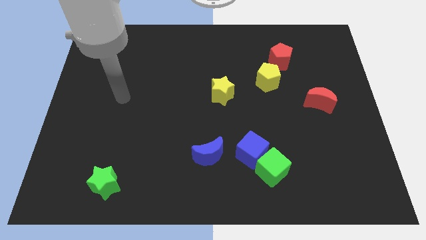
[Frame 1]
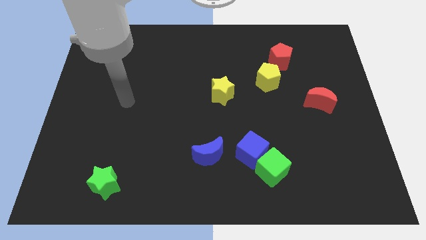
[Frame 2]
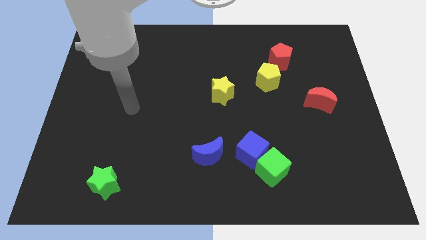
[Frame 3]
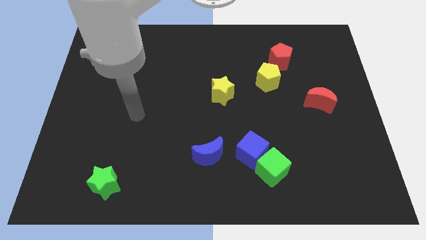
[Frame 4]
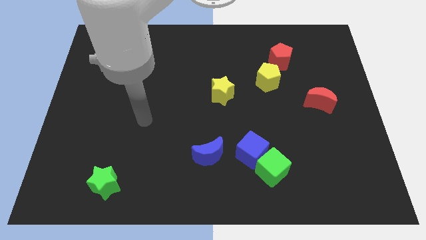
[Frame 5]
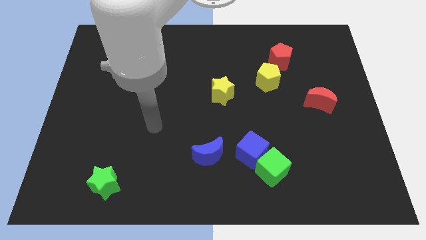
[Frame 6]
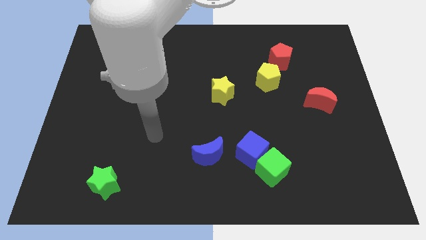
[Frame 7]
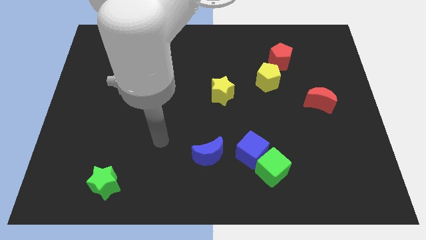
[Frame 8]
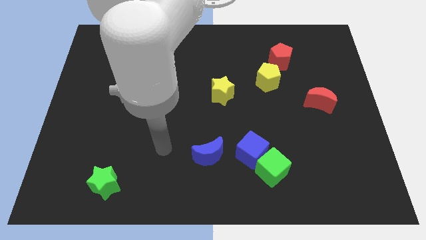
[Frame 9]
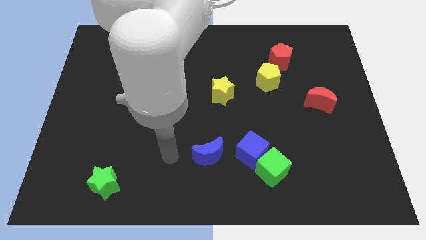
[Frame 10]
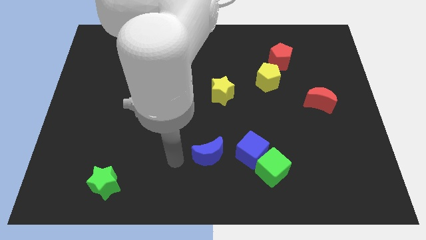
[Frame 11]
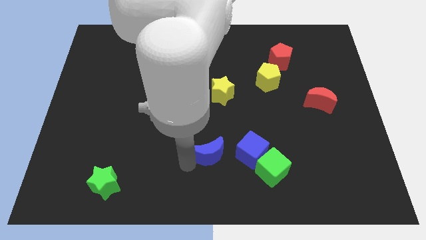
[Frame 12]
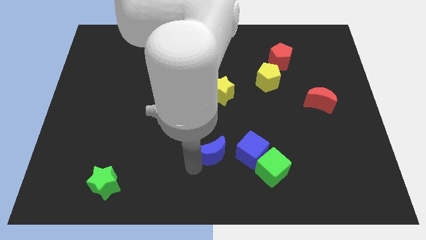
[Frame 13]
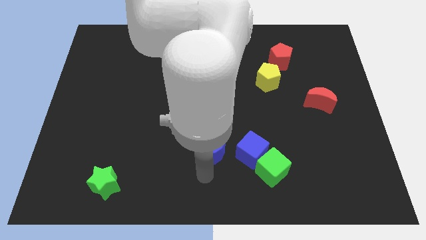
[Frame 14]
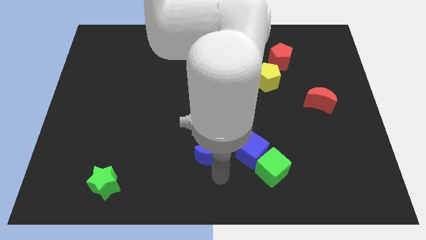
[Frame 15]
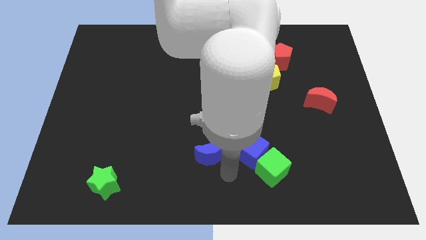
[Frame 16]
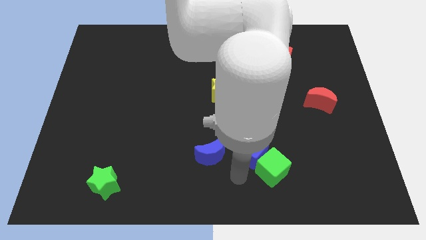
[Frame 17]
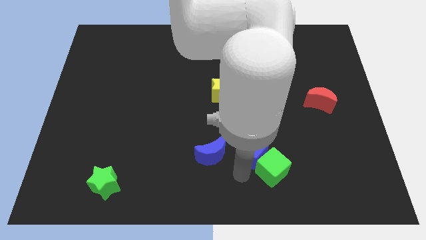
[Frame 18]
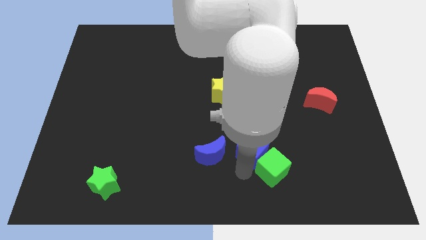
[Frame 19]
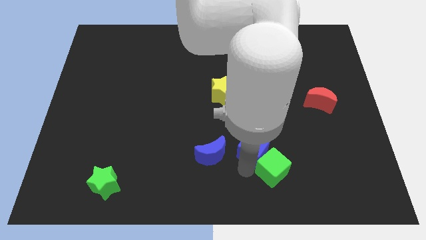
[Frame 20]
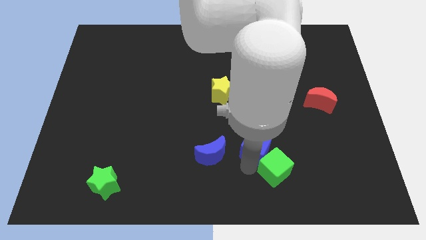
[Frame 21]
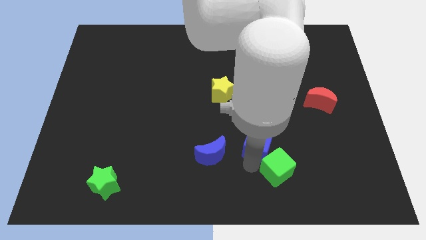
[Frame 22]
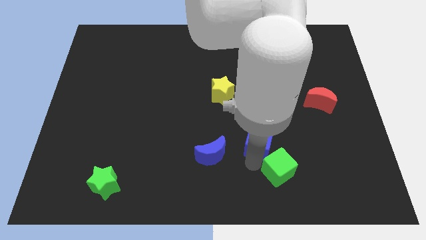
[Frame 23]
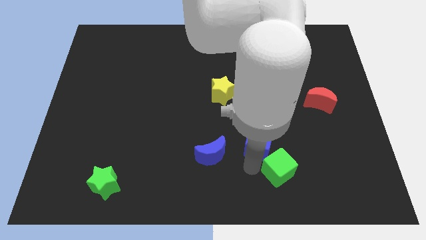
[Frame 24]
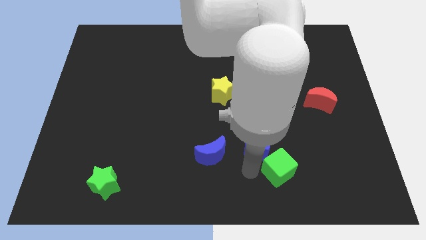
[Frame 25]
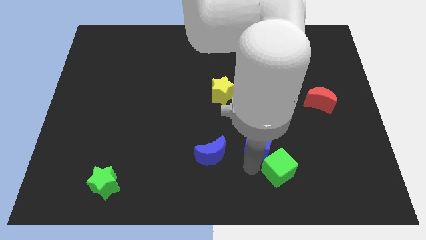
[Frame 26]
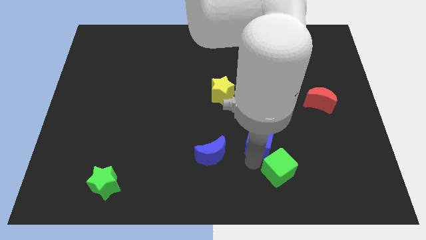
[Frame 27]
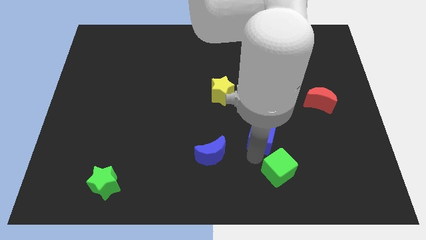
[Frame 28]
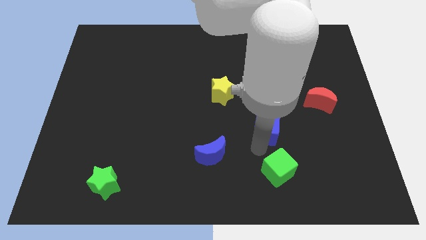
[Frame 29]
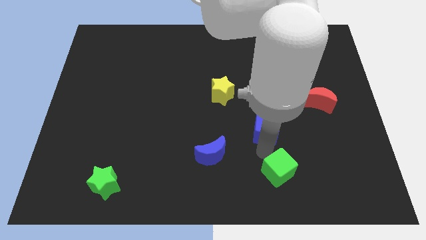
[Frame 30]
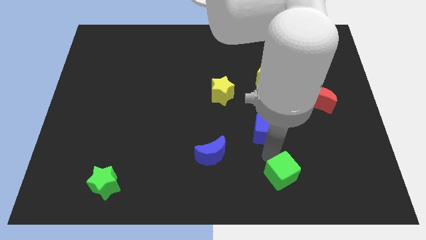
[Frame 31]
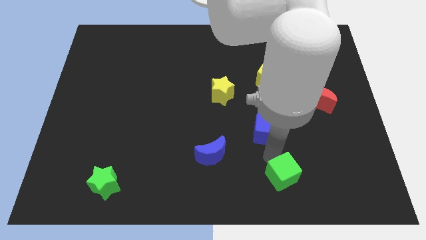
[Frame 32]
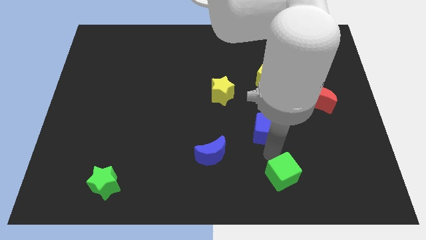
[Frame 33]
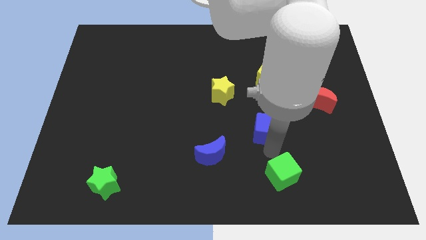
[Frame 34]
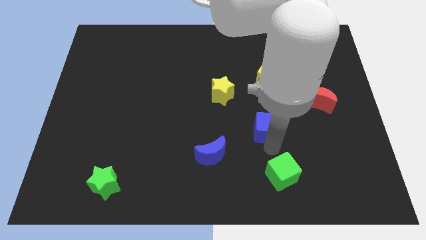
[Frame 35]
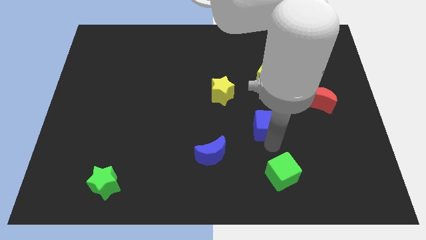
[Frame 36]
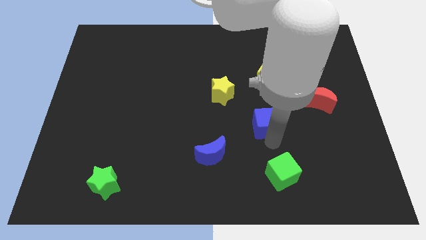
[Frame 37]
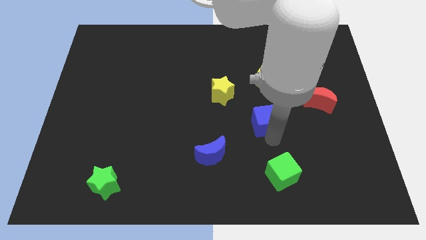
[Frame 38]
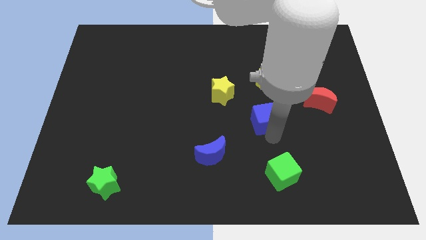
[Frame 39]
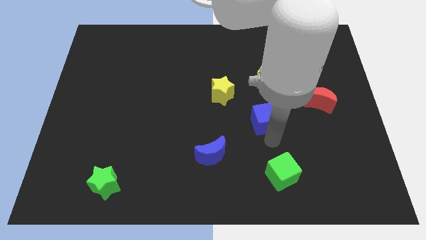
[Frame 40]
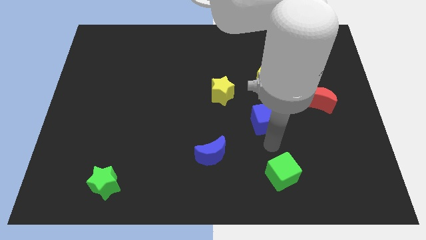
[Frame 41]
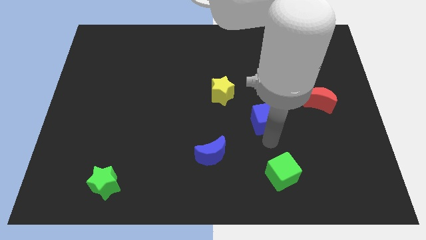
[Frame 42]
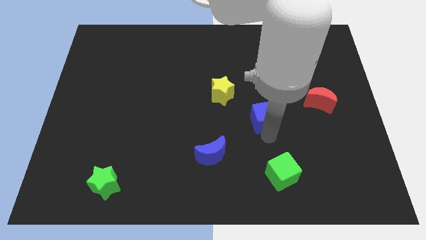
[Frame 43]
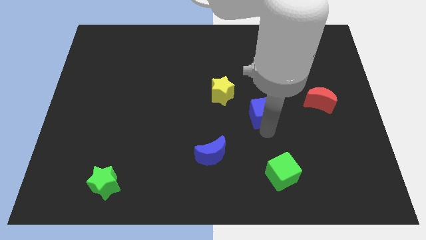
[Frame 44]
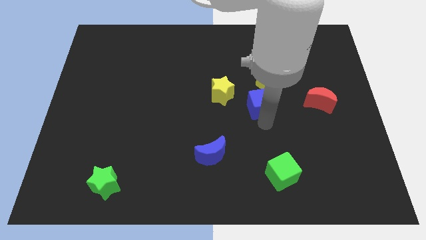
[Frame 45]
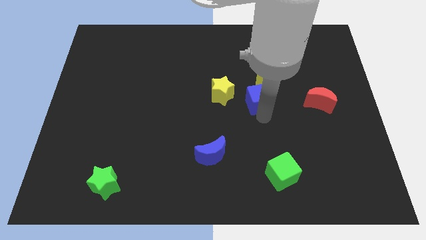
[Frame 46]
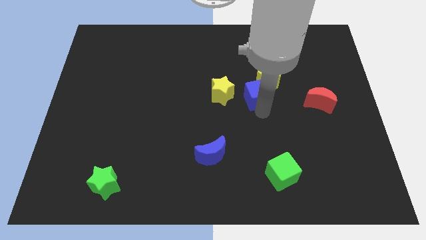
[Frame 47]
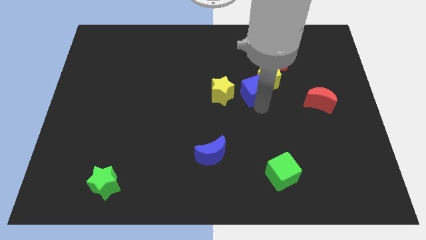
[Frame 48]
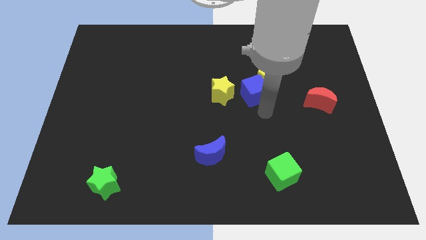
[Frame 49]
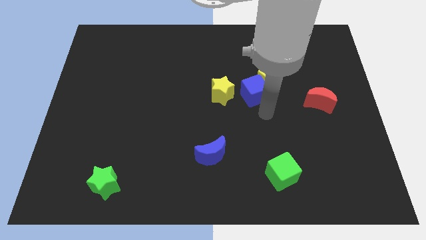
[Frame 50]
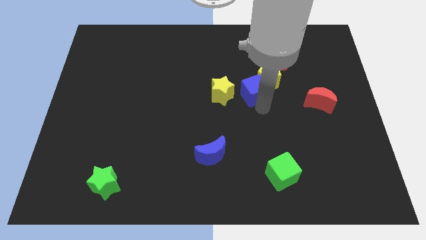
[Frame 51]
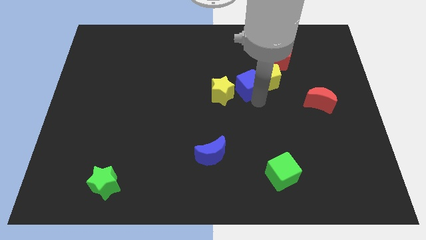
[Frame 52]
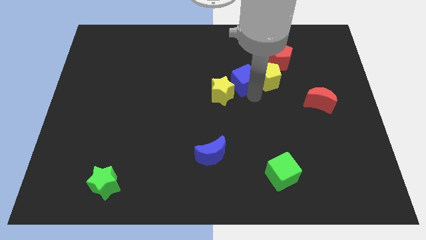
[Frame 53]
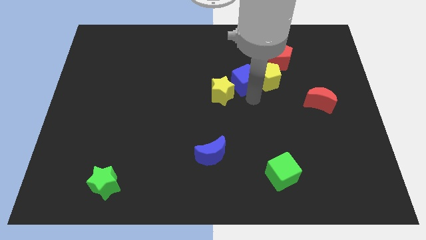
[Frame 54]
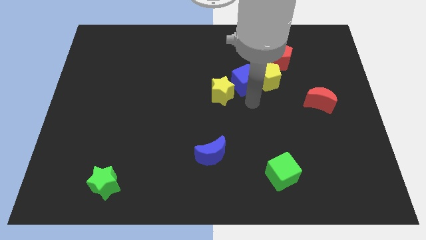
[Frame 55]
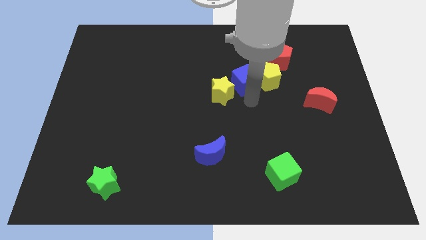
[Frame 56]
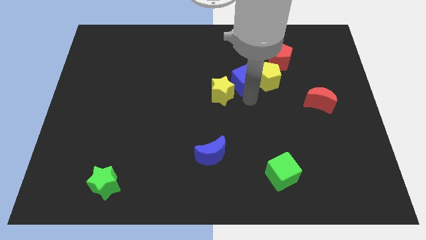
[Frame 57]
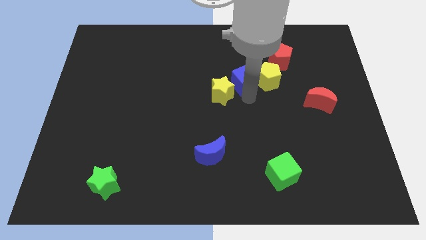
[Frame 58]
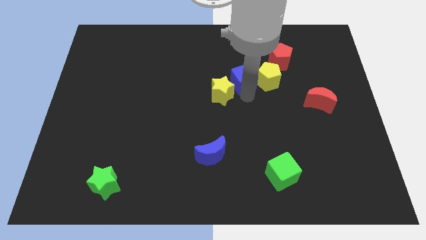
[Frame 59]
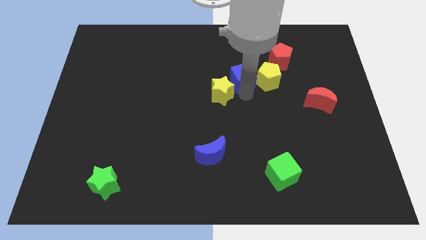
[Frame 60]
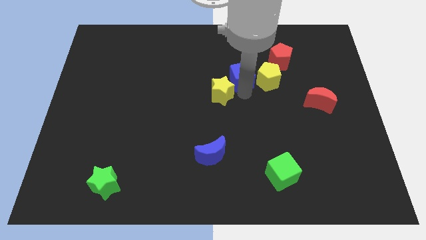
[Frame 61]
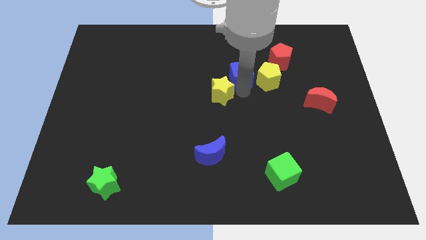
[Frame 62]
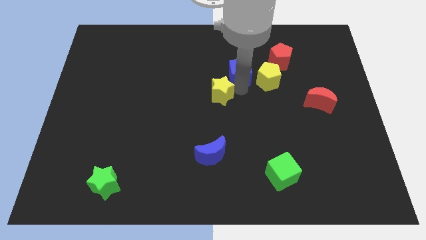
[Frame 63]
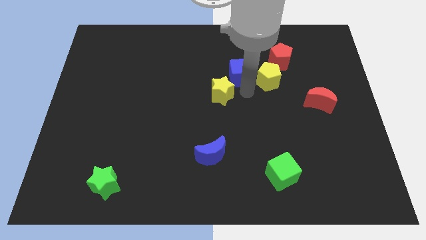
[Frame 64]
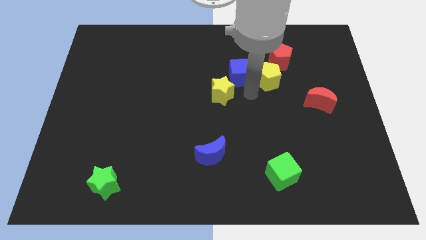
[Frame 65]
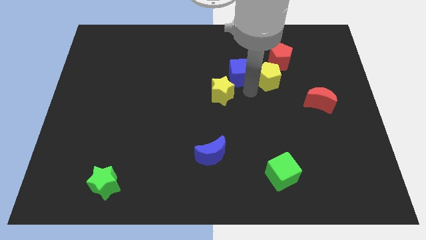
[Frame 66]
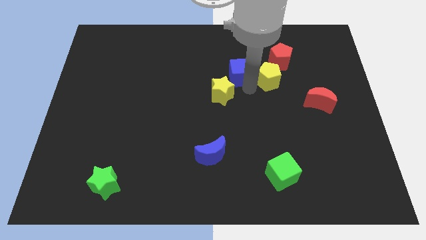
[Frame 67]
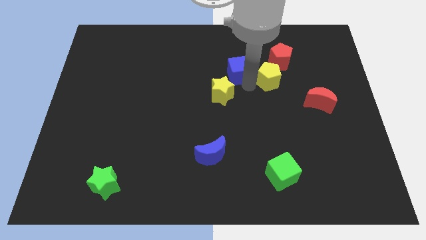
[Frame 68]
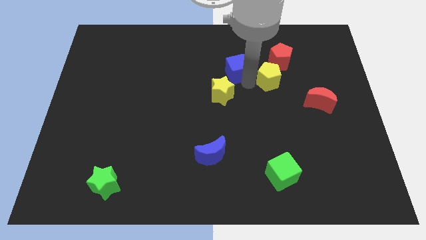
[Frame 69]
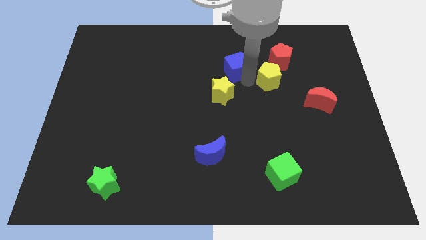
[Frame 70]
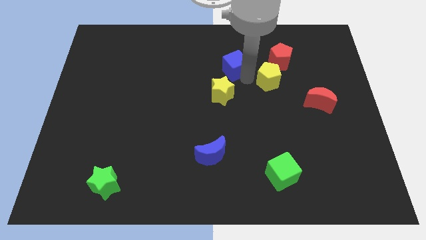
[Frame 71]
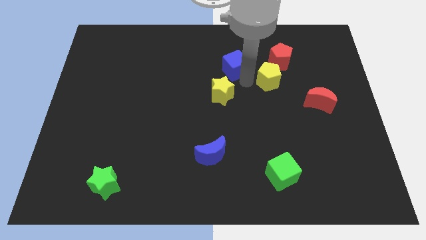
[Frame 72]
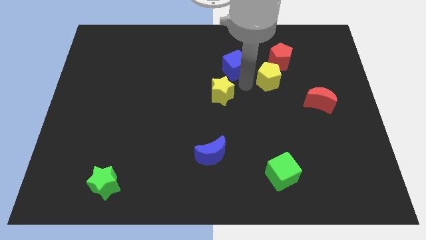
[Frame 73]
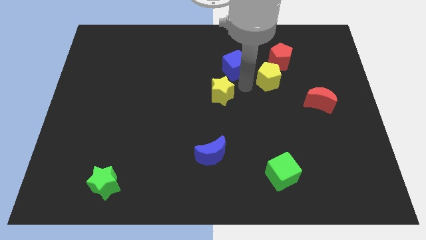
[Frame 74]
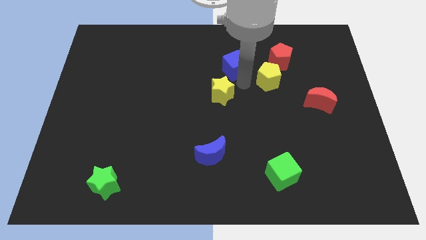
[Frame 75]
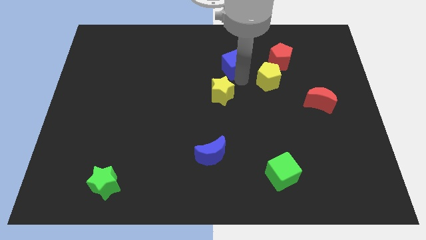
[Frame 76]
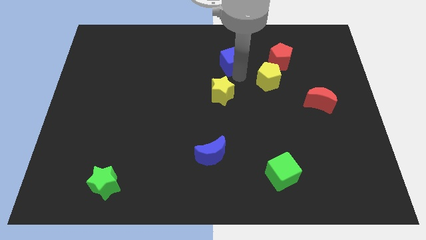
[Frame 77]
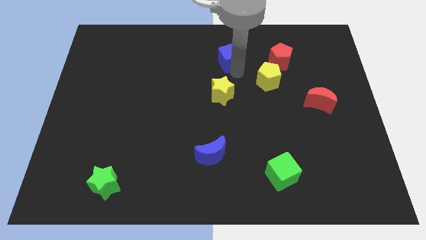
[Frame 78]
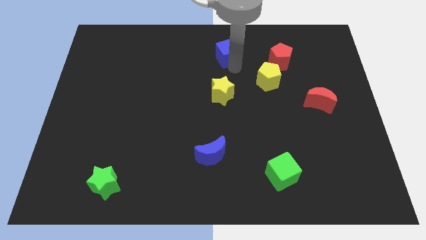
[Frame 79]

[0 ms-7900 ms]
move the blue cube to the towards your base
